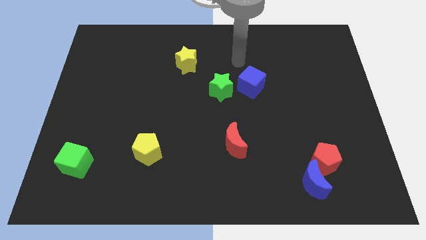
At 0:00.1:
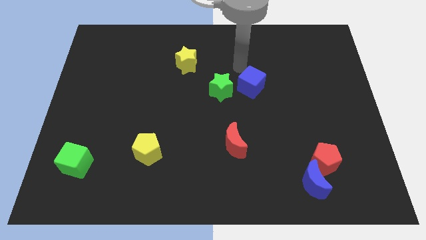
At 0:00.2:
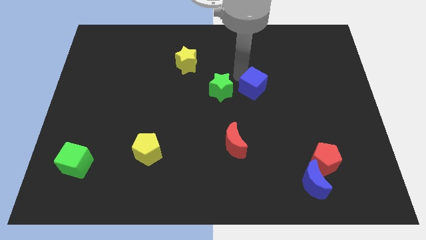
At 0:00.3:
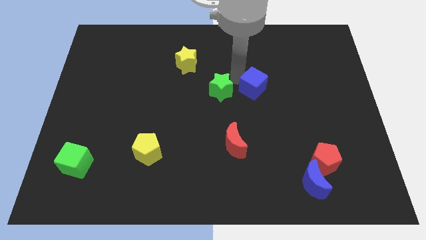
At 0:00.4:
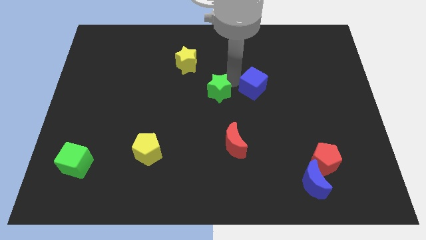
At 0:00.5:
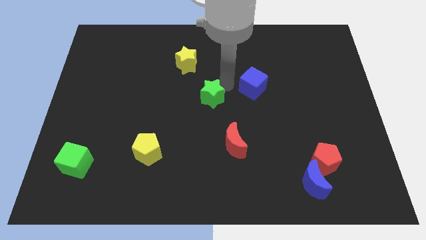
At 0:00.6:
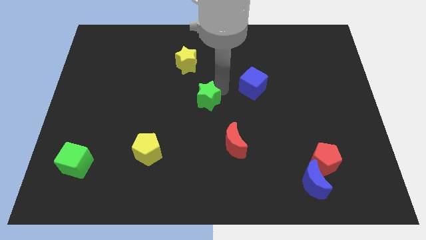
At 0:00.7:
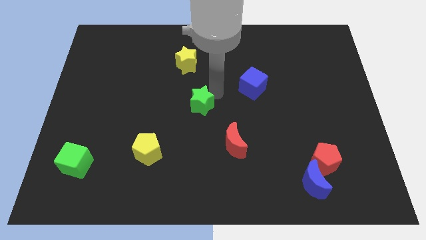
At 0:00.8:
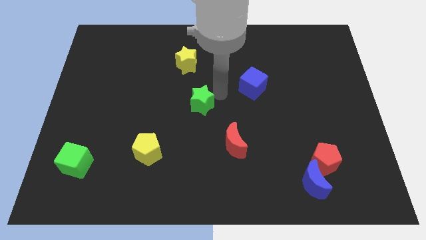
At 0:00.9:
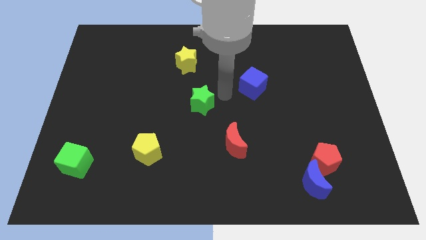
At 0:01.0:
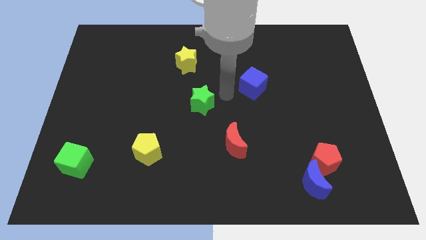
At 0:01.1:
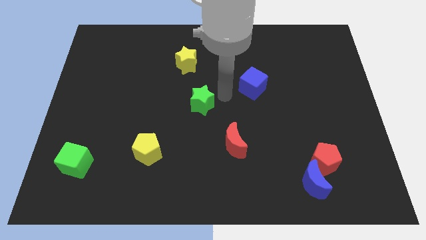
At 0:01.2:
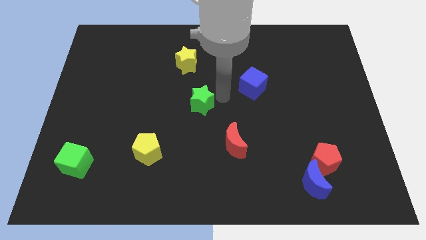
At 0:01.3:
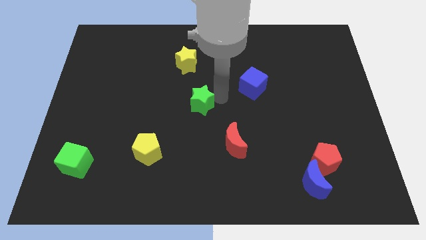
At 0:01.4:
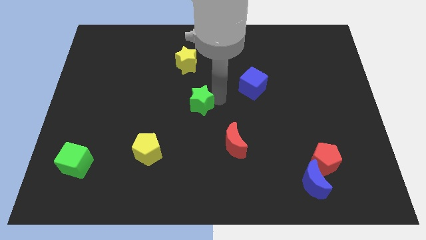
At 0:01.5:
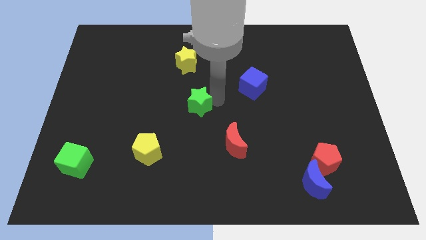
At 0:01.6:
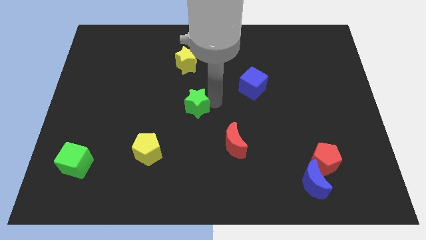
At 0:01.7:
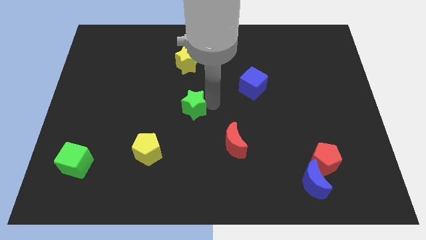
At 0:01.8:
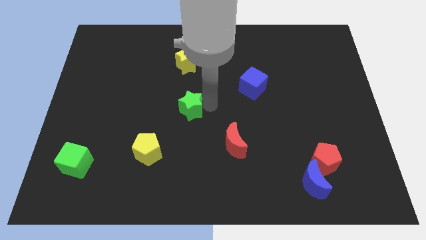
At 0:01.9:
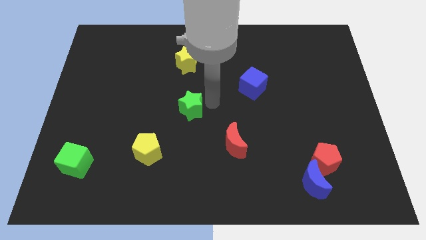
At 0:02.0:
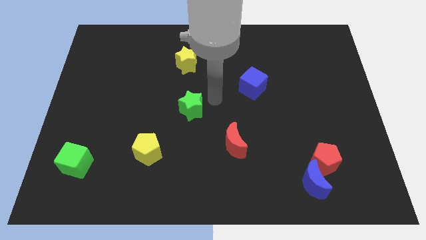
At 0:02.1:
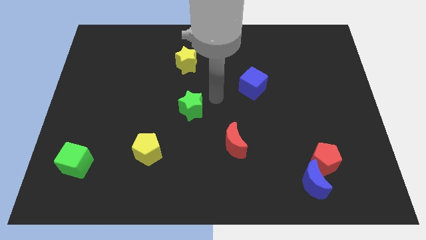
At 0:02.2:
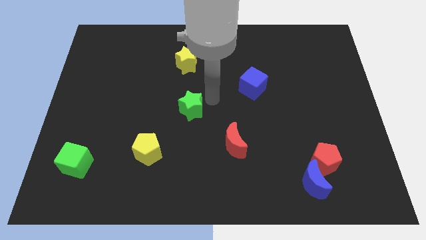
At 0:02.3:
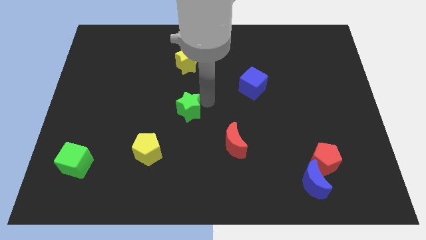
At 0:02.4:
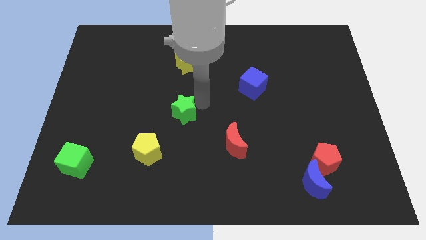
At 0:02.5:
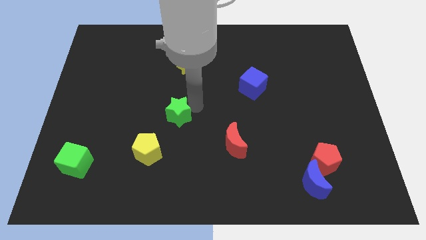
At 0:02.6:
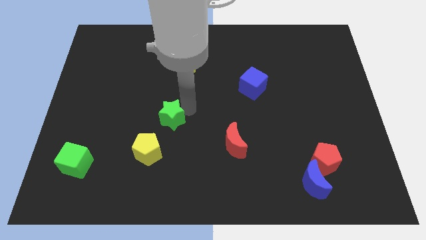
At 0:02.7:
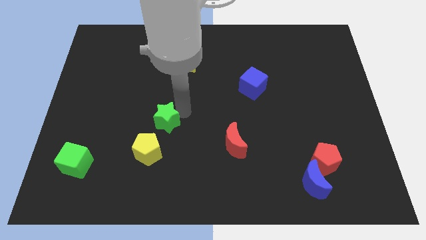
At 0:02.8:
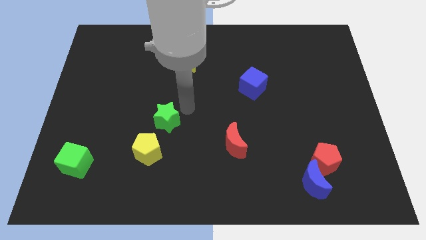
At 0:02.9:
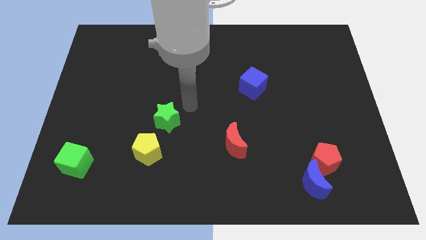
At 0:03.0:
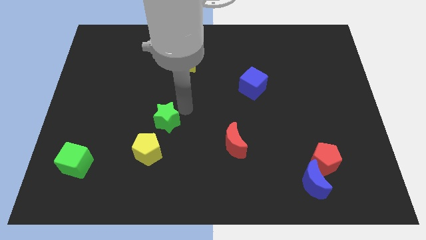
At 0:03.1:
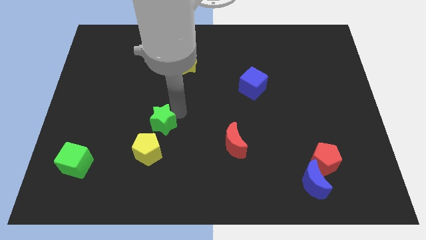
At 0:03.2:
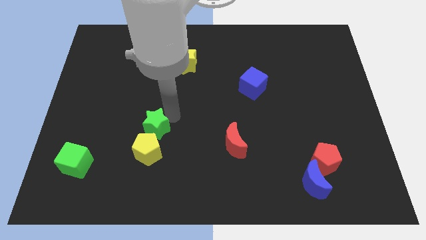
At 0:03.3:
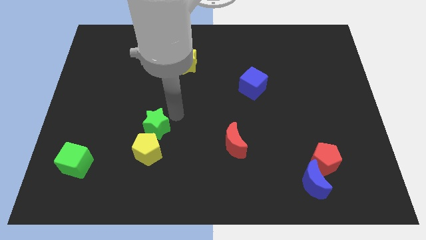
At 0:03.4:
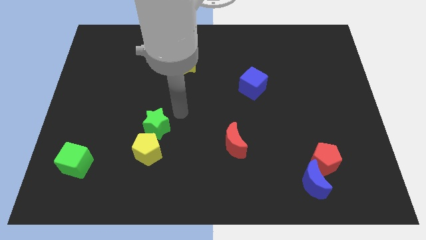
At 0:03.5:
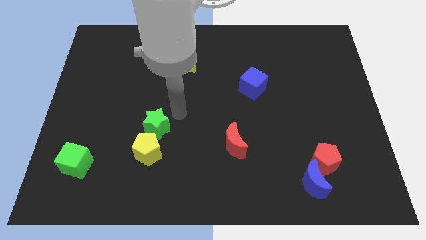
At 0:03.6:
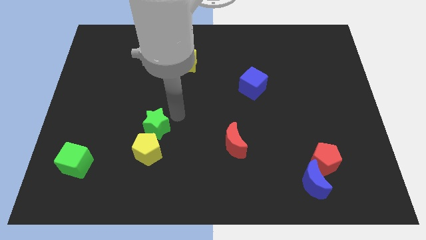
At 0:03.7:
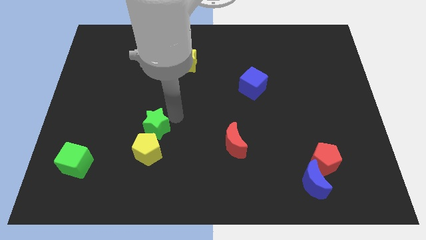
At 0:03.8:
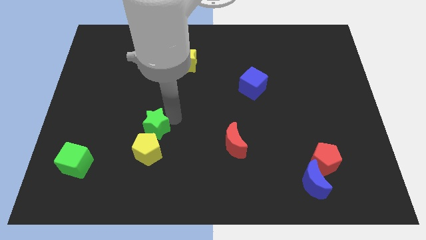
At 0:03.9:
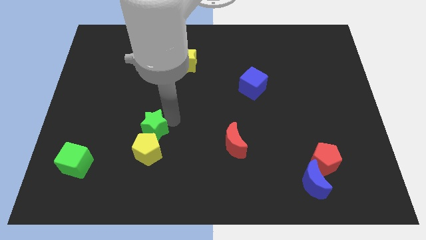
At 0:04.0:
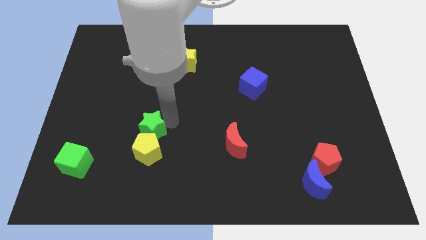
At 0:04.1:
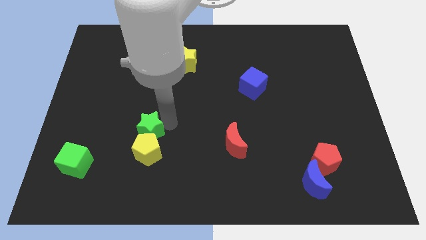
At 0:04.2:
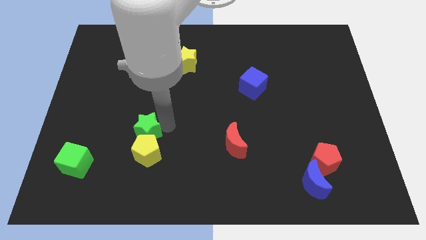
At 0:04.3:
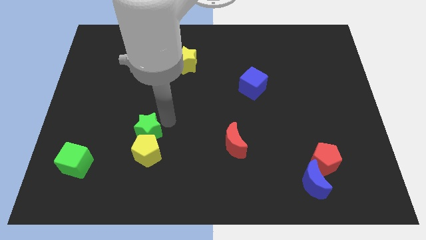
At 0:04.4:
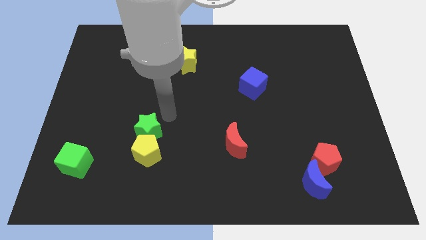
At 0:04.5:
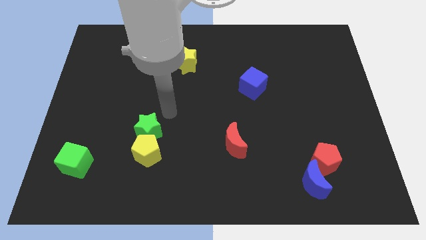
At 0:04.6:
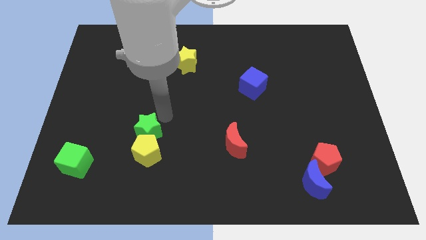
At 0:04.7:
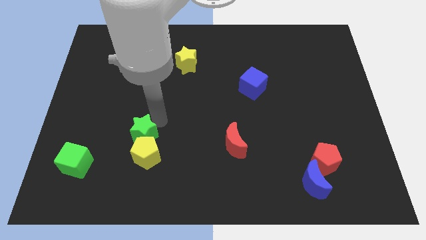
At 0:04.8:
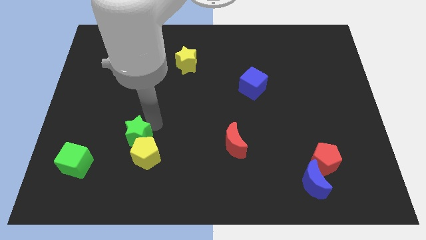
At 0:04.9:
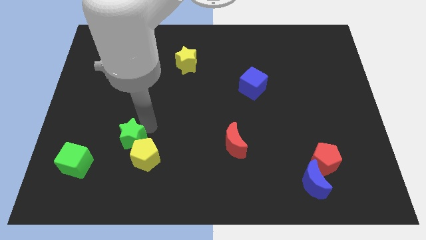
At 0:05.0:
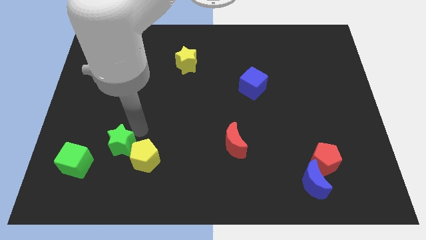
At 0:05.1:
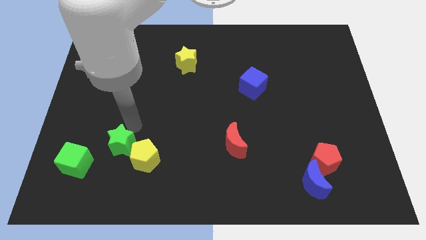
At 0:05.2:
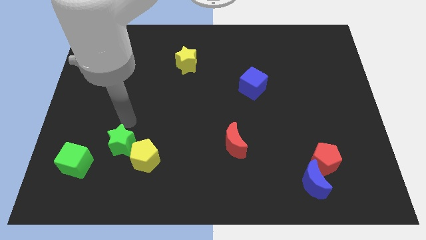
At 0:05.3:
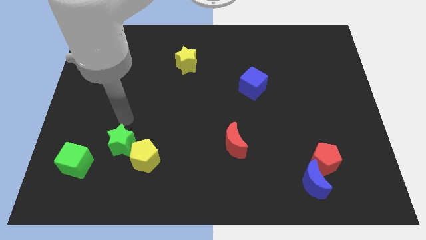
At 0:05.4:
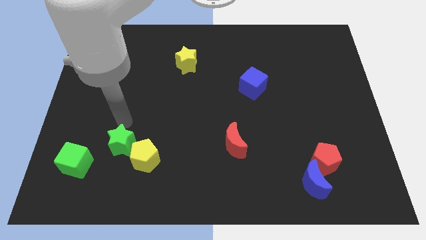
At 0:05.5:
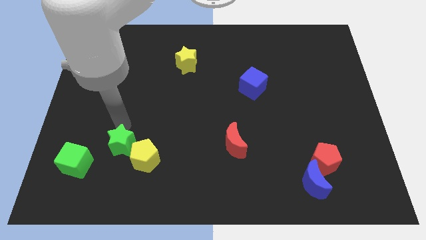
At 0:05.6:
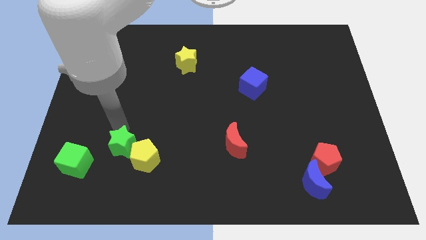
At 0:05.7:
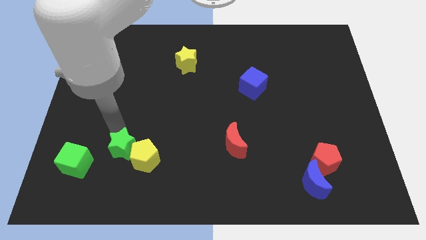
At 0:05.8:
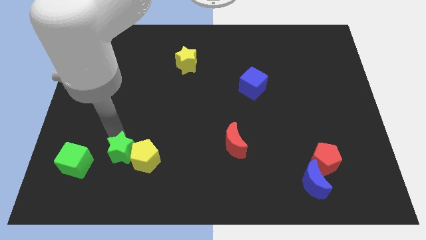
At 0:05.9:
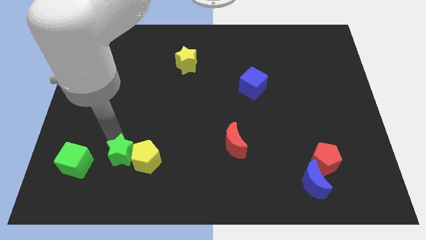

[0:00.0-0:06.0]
push the green star to the bottom left of the yellow pentagon

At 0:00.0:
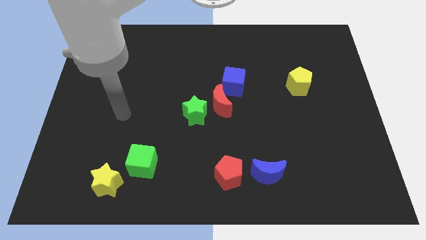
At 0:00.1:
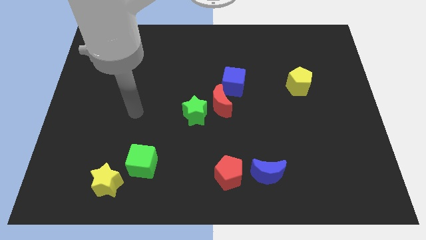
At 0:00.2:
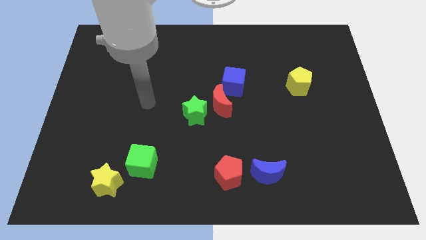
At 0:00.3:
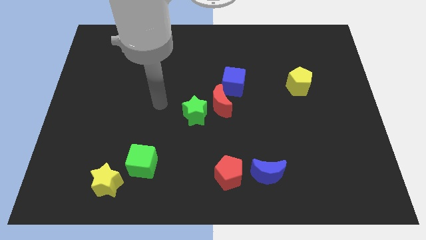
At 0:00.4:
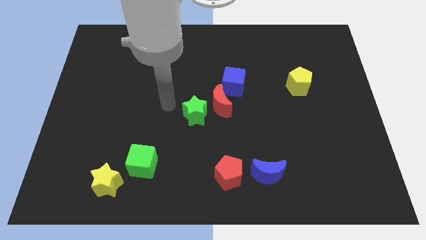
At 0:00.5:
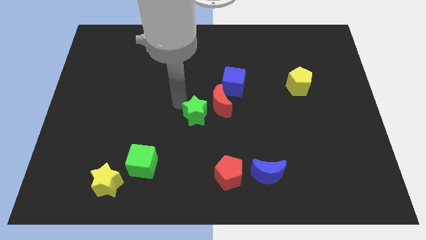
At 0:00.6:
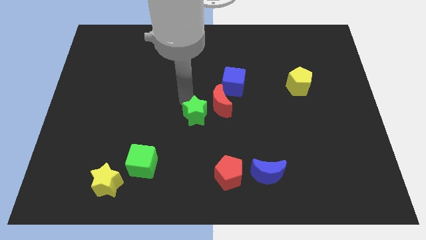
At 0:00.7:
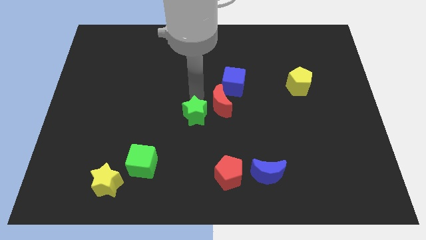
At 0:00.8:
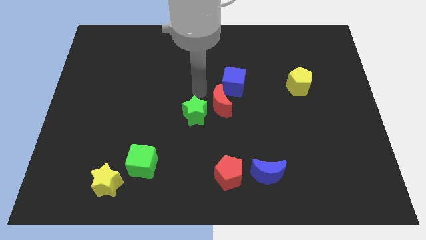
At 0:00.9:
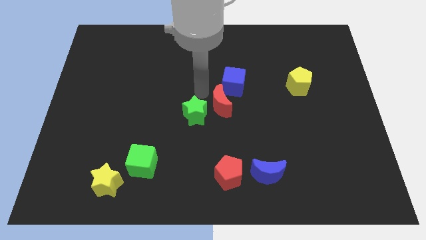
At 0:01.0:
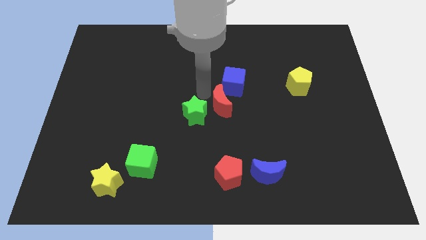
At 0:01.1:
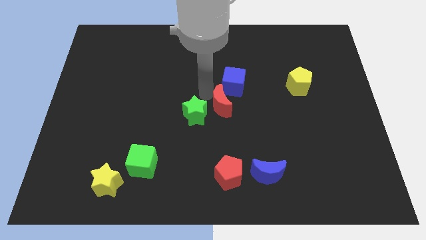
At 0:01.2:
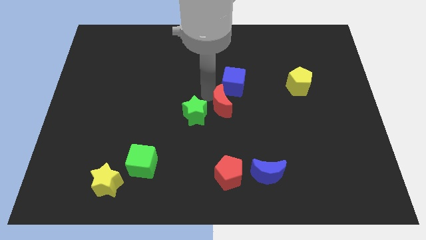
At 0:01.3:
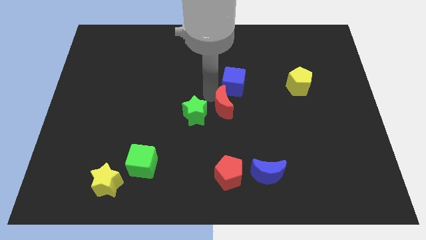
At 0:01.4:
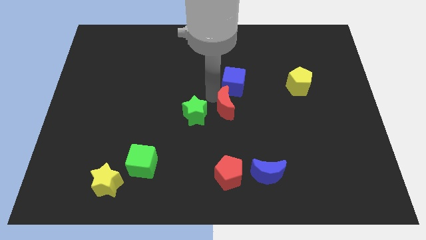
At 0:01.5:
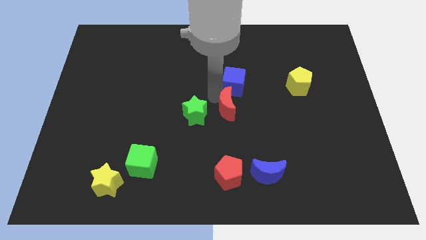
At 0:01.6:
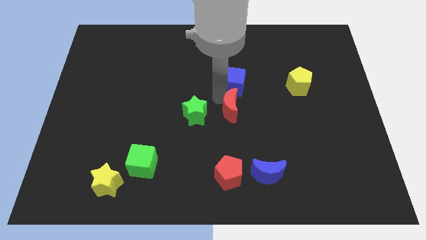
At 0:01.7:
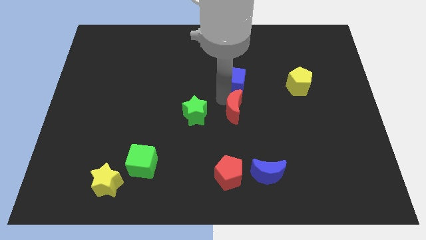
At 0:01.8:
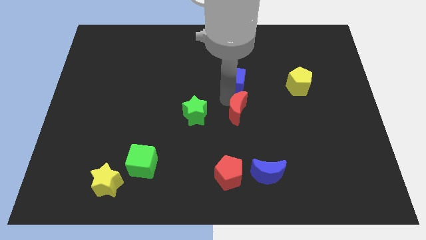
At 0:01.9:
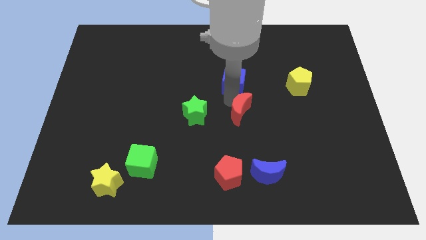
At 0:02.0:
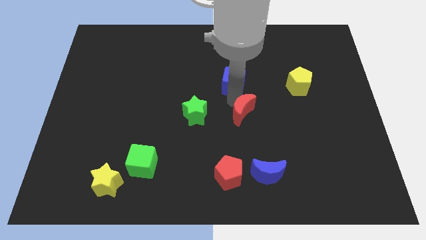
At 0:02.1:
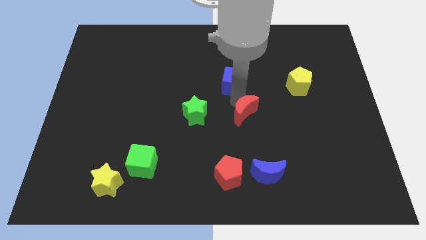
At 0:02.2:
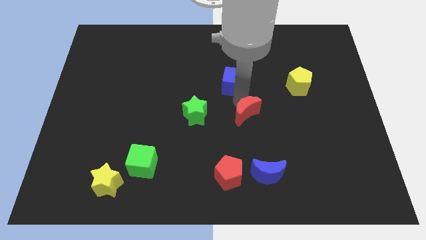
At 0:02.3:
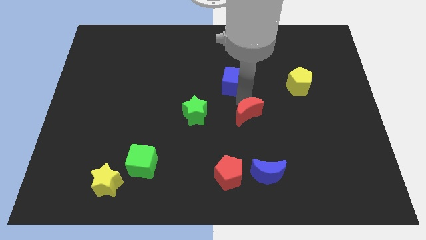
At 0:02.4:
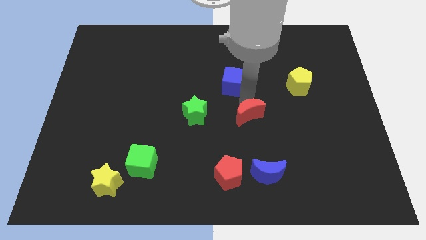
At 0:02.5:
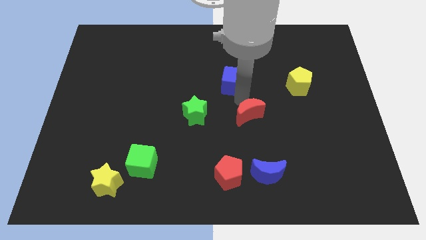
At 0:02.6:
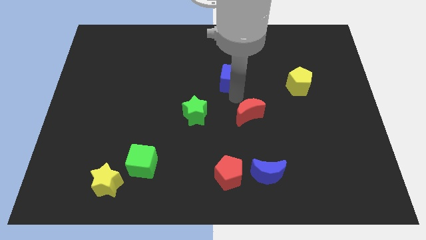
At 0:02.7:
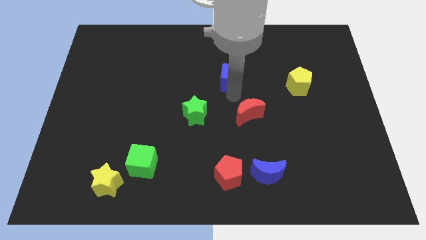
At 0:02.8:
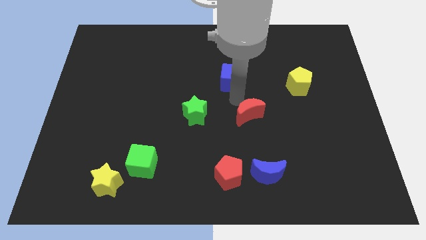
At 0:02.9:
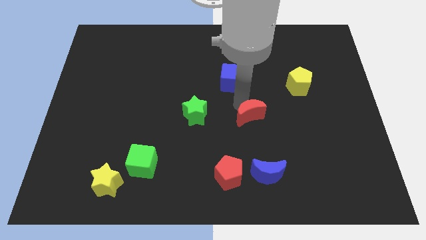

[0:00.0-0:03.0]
move the red moon to the top side of the blue moon
